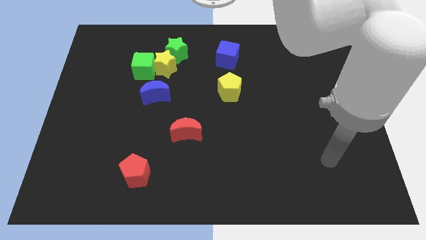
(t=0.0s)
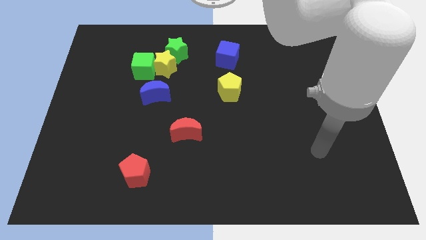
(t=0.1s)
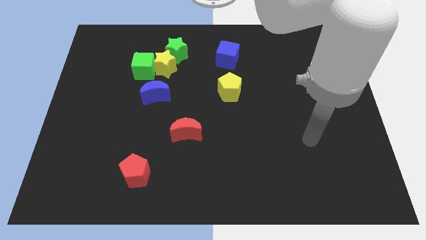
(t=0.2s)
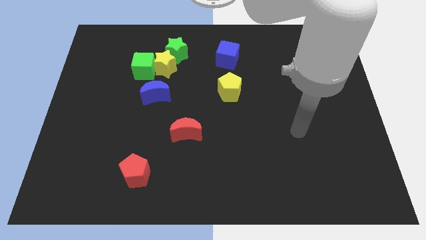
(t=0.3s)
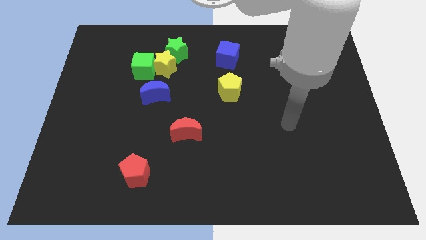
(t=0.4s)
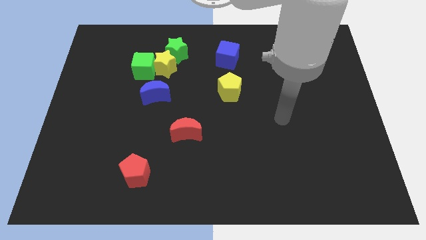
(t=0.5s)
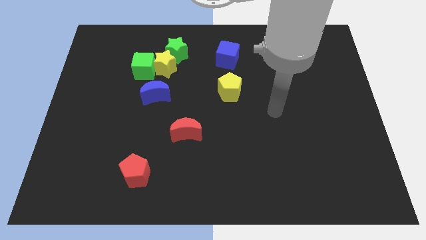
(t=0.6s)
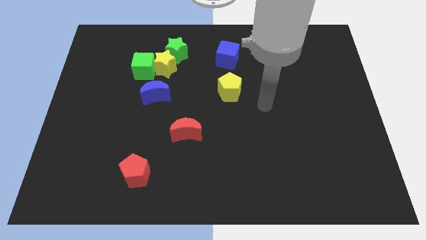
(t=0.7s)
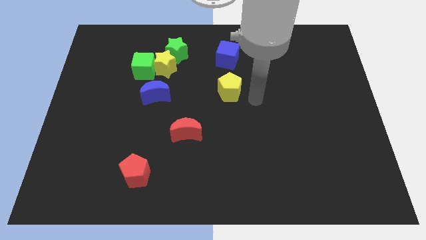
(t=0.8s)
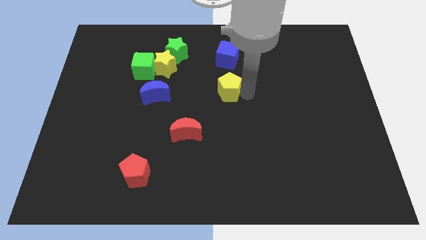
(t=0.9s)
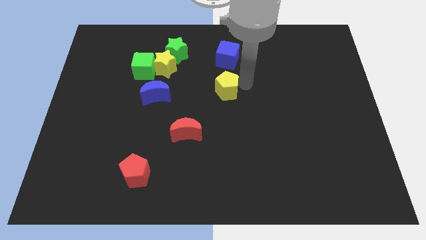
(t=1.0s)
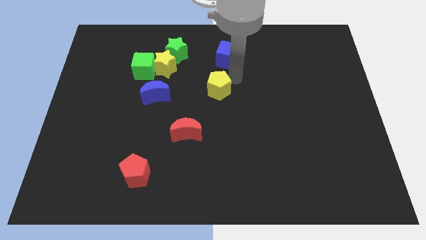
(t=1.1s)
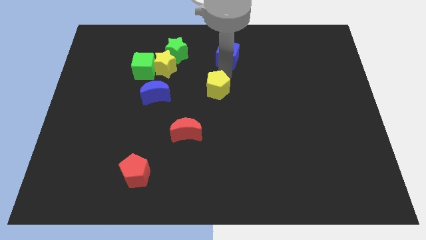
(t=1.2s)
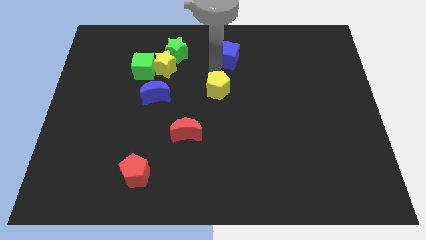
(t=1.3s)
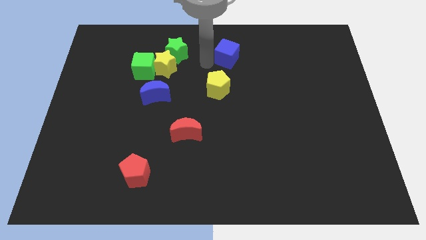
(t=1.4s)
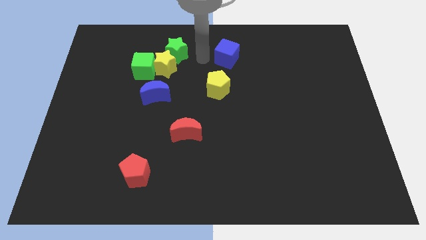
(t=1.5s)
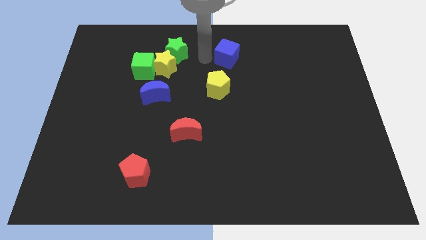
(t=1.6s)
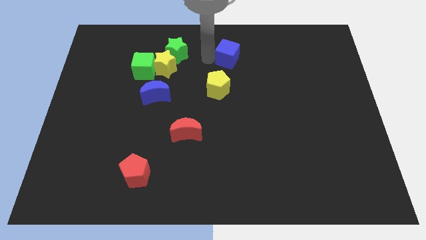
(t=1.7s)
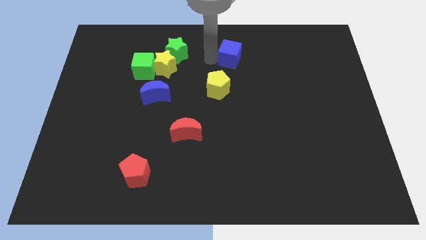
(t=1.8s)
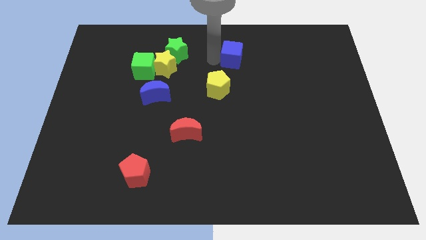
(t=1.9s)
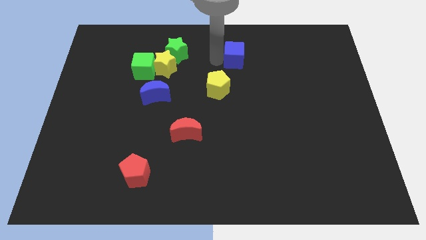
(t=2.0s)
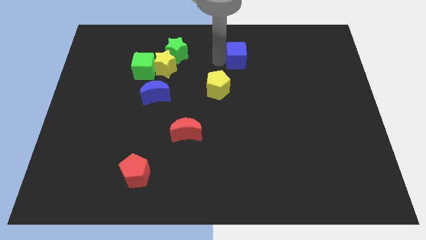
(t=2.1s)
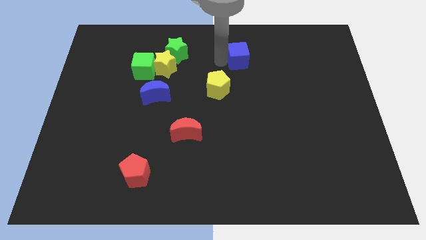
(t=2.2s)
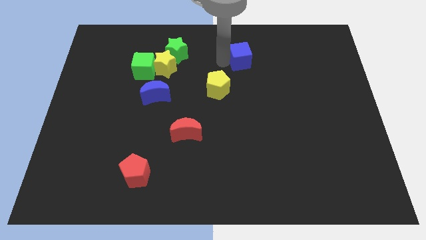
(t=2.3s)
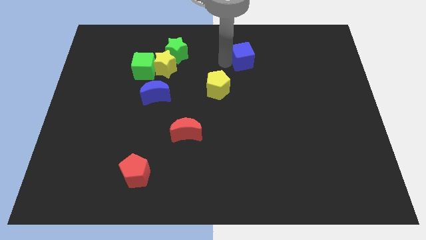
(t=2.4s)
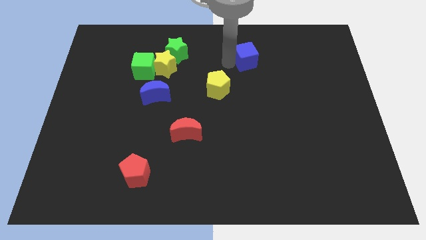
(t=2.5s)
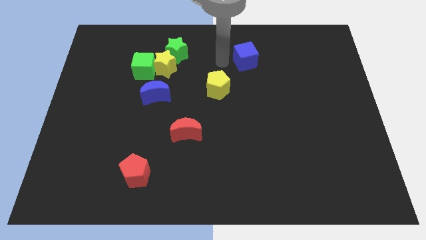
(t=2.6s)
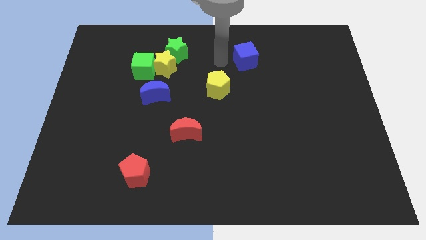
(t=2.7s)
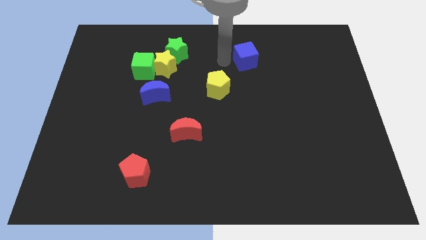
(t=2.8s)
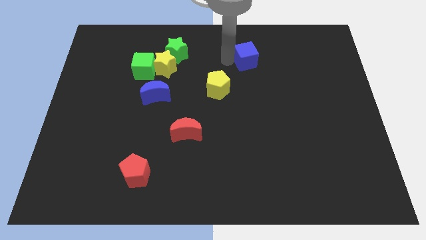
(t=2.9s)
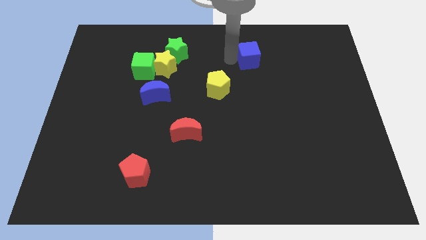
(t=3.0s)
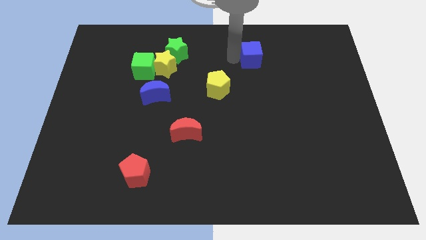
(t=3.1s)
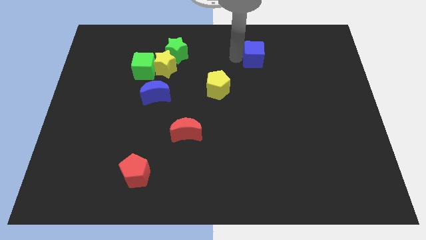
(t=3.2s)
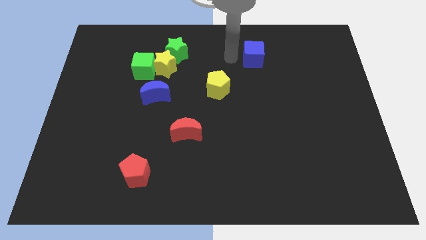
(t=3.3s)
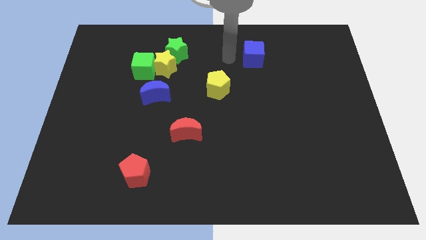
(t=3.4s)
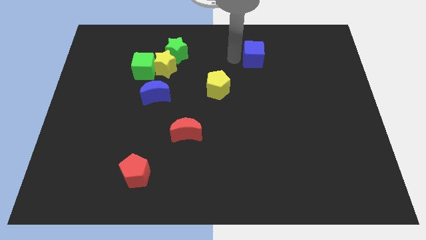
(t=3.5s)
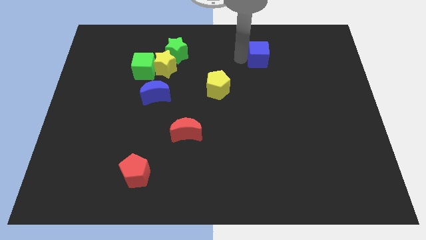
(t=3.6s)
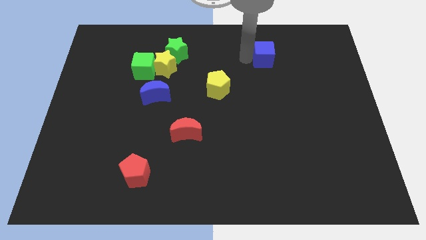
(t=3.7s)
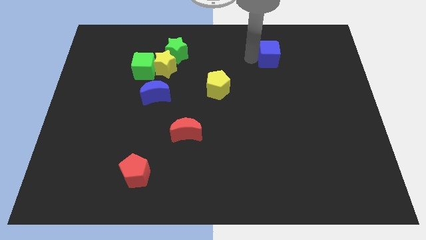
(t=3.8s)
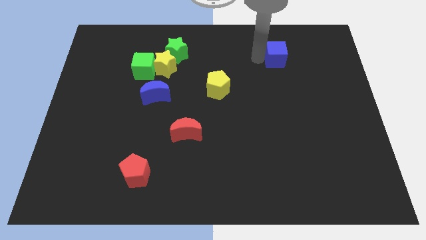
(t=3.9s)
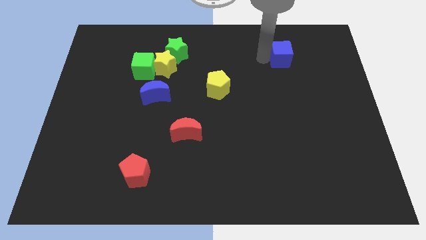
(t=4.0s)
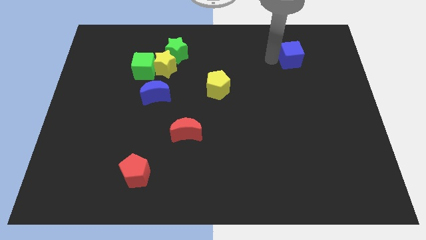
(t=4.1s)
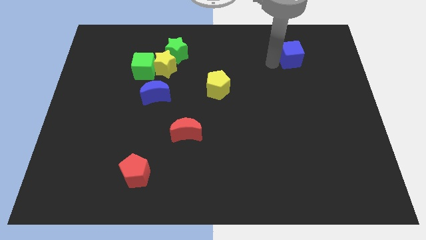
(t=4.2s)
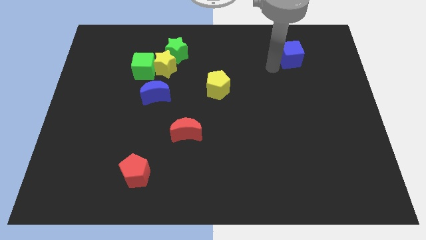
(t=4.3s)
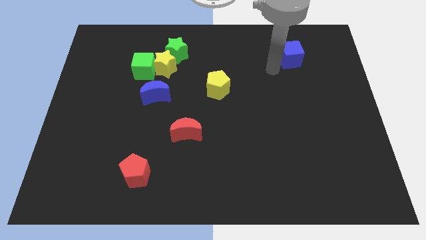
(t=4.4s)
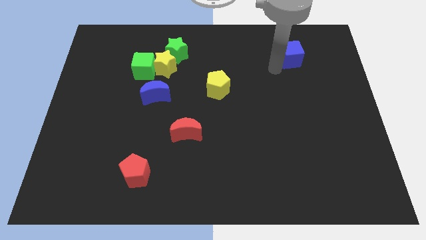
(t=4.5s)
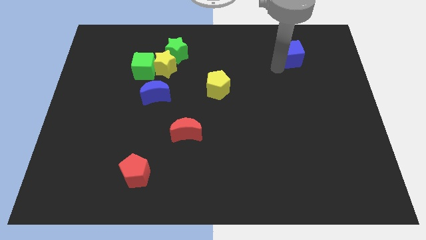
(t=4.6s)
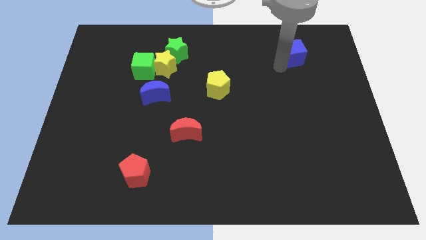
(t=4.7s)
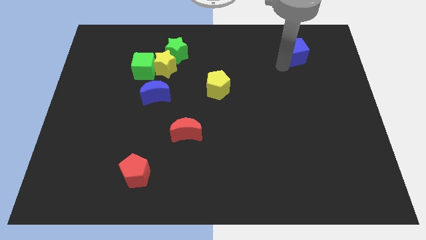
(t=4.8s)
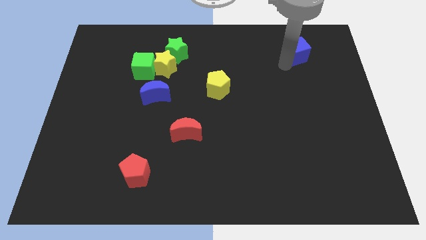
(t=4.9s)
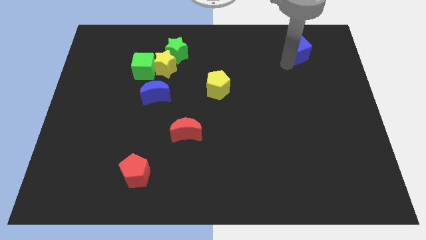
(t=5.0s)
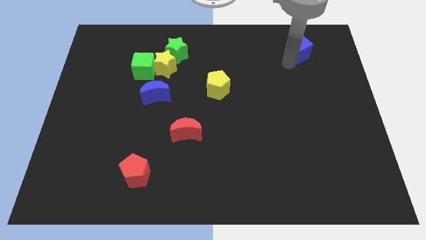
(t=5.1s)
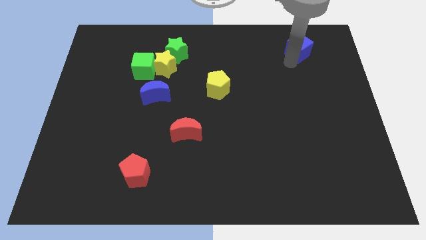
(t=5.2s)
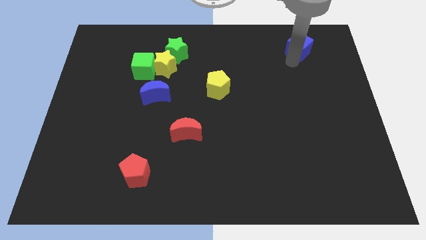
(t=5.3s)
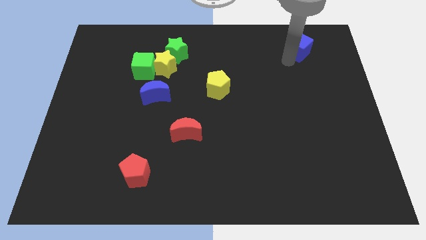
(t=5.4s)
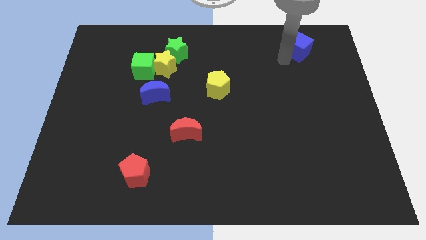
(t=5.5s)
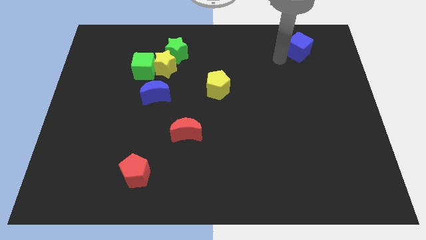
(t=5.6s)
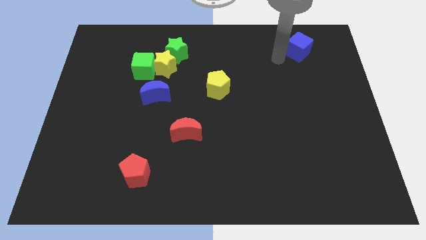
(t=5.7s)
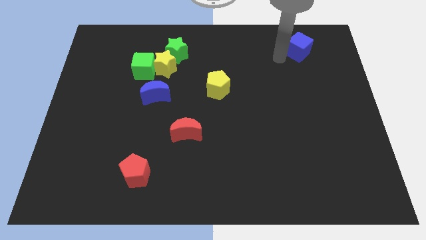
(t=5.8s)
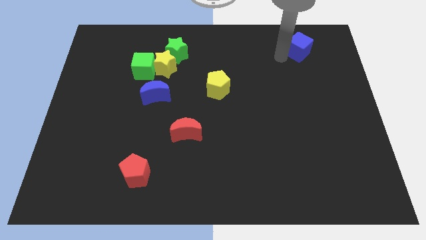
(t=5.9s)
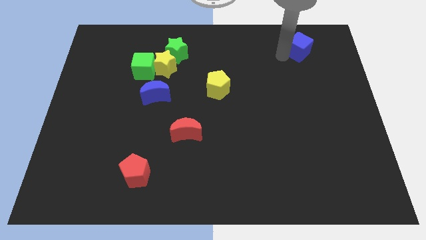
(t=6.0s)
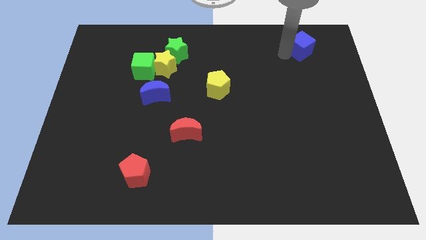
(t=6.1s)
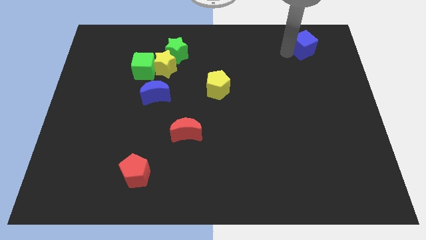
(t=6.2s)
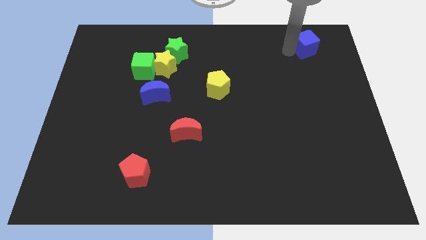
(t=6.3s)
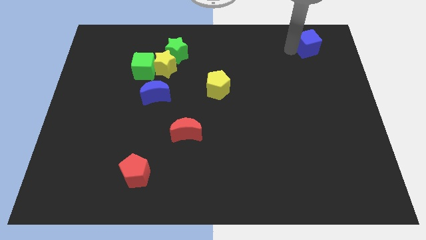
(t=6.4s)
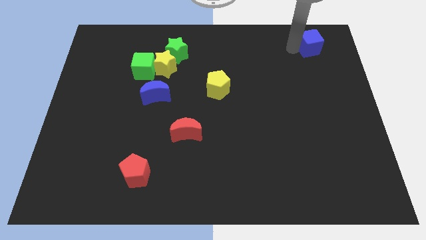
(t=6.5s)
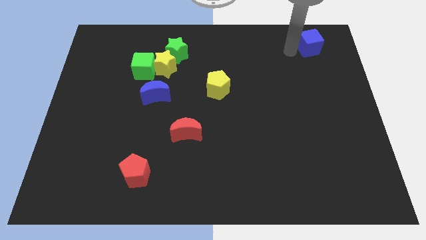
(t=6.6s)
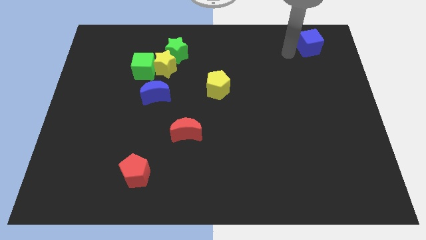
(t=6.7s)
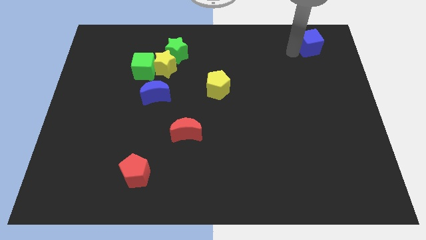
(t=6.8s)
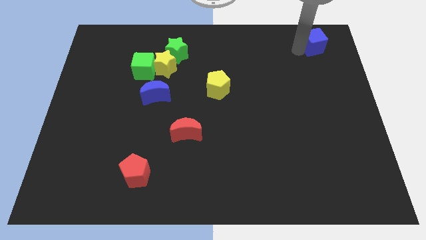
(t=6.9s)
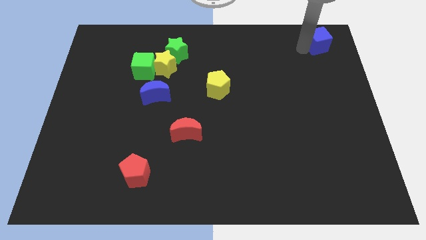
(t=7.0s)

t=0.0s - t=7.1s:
push the blue cube to the top right corner

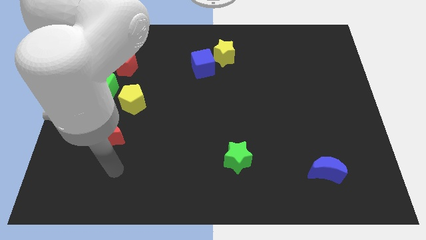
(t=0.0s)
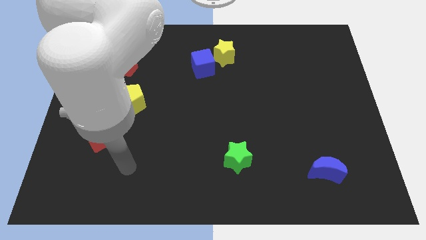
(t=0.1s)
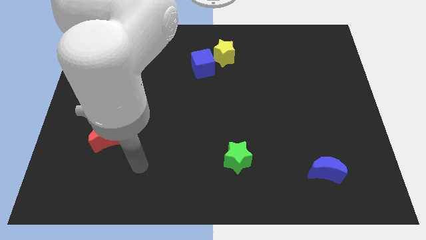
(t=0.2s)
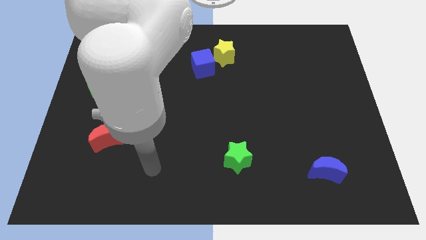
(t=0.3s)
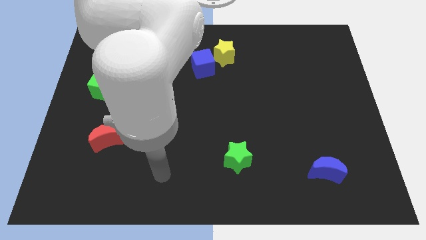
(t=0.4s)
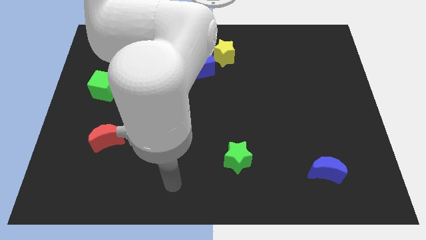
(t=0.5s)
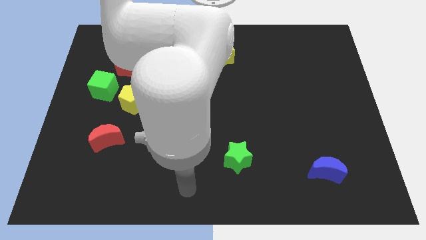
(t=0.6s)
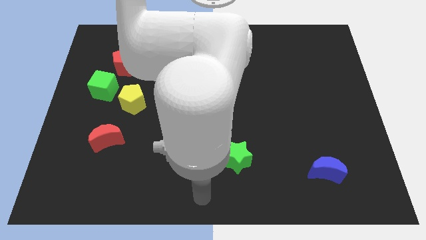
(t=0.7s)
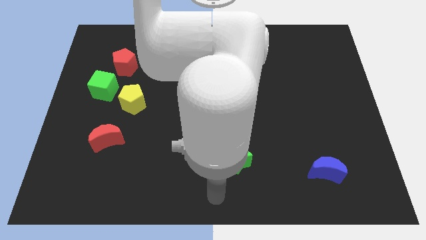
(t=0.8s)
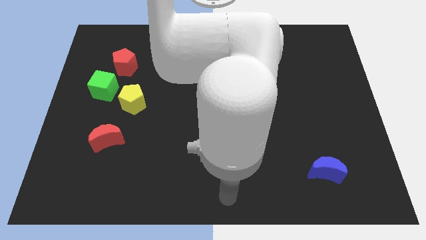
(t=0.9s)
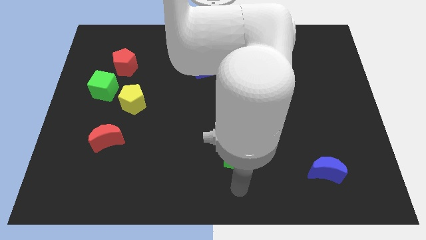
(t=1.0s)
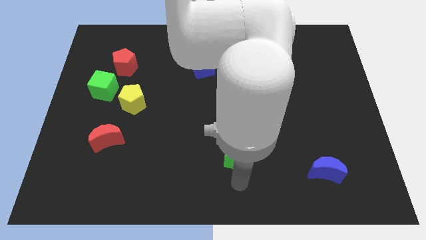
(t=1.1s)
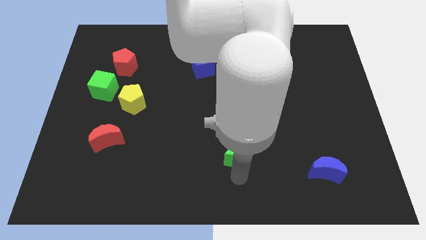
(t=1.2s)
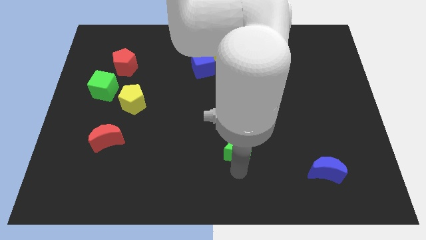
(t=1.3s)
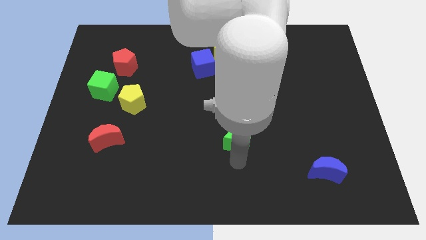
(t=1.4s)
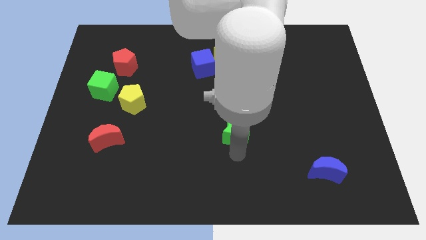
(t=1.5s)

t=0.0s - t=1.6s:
move the green star to the center of the board
